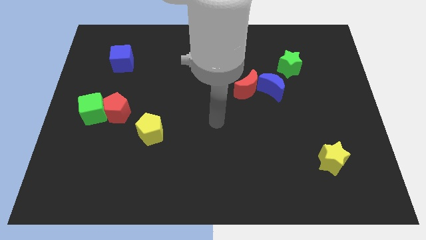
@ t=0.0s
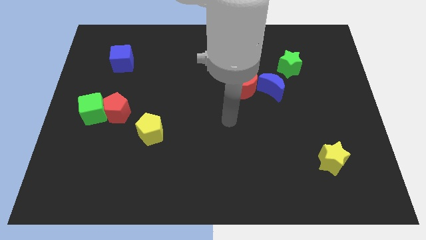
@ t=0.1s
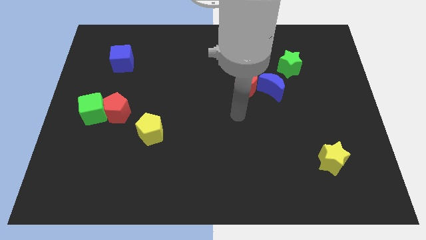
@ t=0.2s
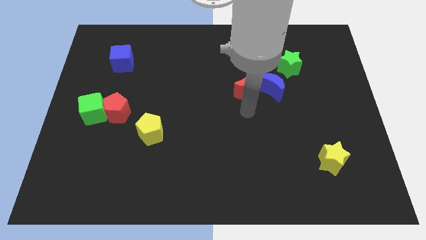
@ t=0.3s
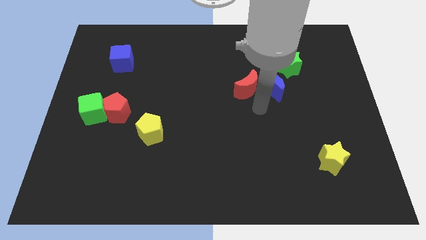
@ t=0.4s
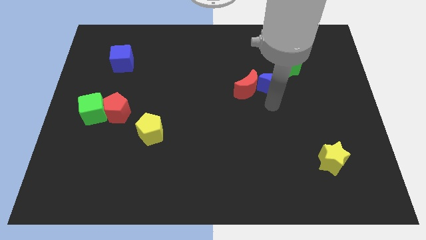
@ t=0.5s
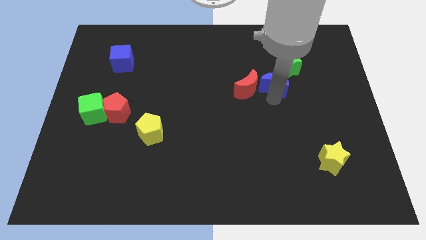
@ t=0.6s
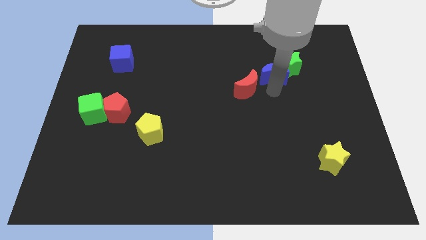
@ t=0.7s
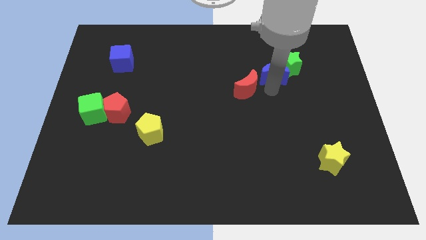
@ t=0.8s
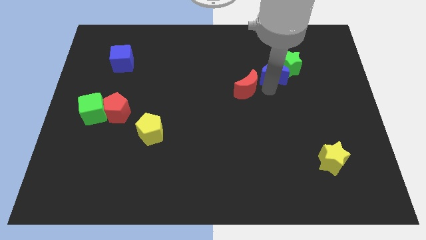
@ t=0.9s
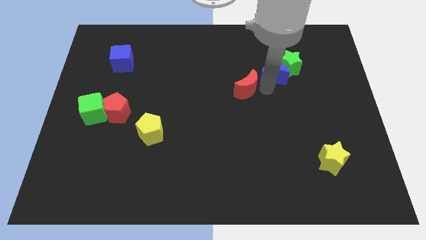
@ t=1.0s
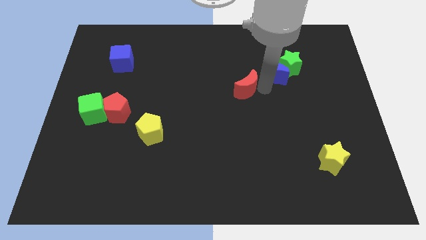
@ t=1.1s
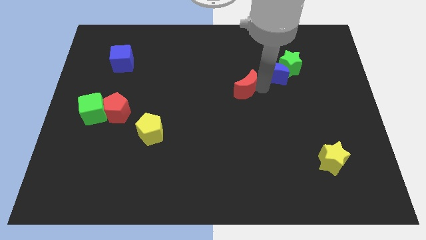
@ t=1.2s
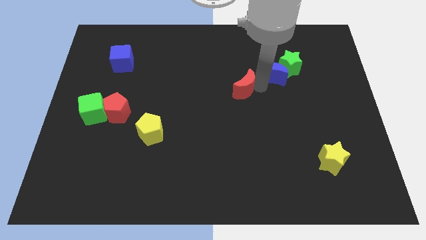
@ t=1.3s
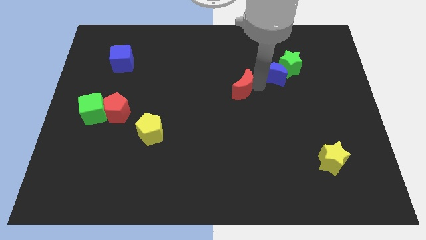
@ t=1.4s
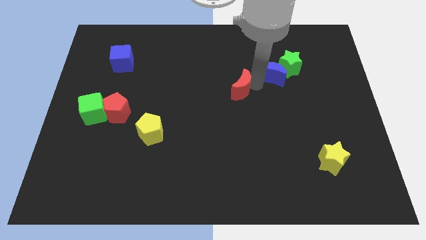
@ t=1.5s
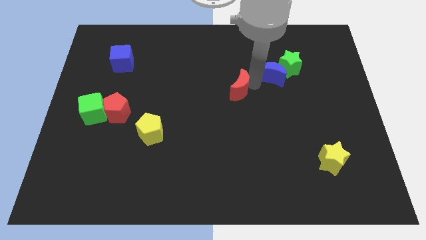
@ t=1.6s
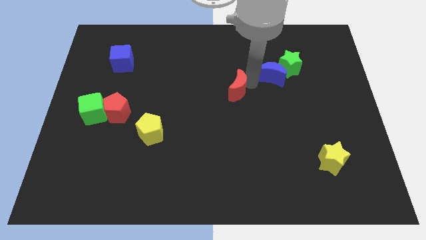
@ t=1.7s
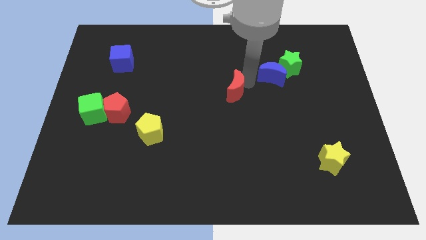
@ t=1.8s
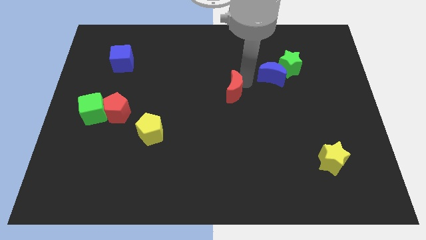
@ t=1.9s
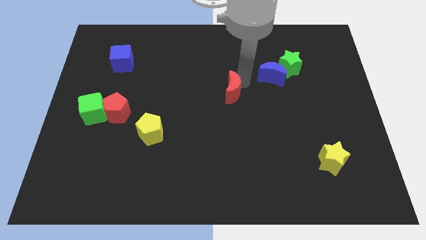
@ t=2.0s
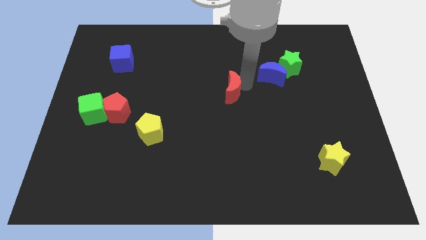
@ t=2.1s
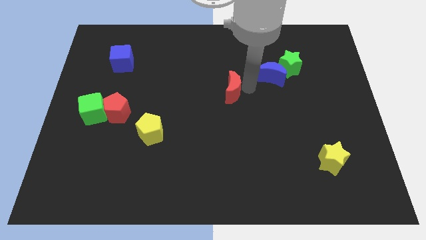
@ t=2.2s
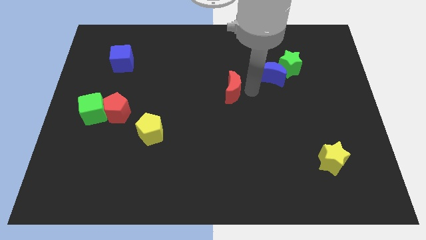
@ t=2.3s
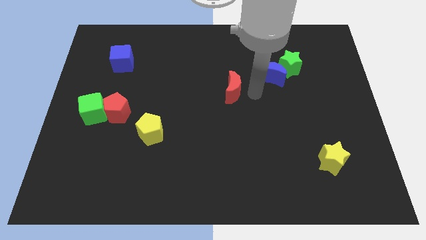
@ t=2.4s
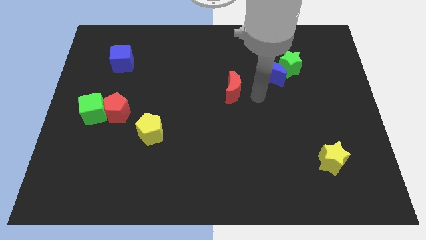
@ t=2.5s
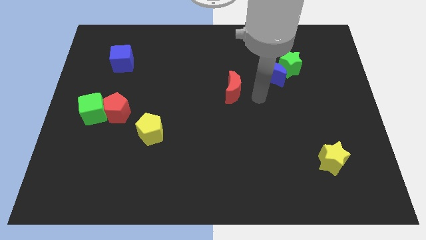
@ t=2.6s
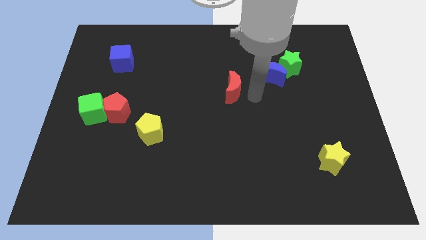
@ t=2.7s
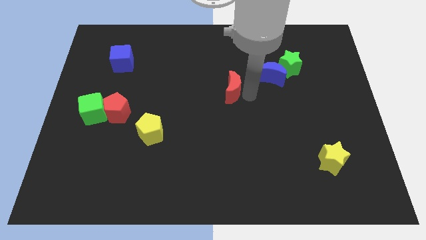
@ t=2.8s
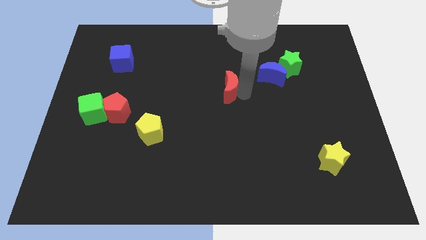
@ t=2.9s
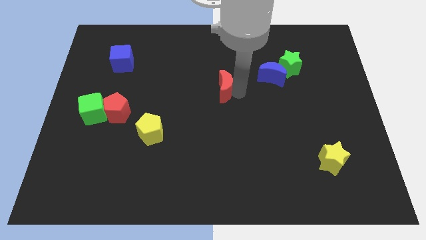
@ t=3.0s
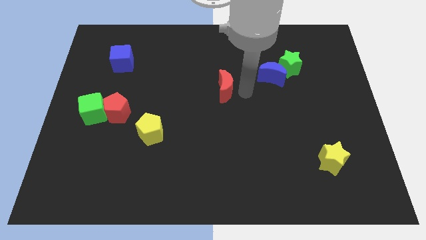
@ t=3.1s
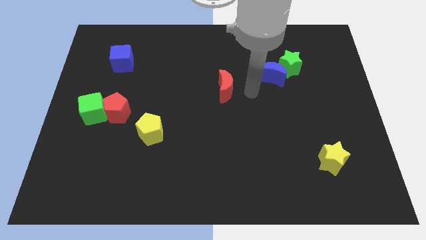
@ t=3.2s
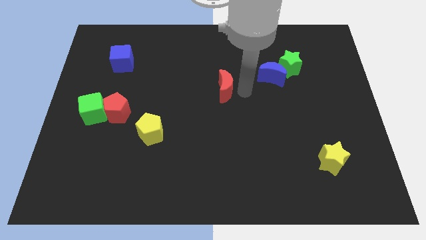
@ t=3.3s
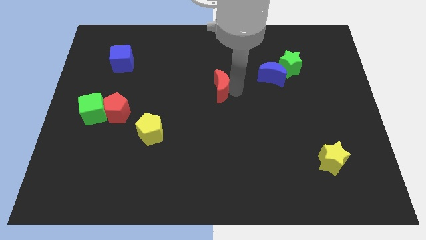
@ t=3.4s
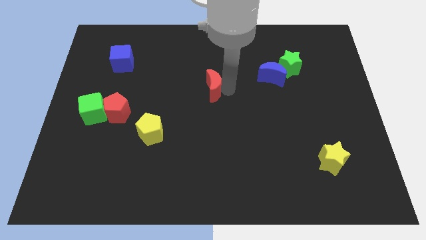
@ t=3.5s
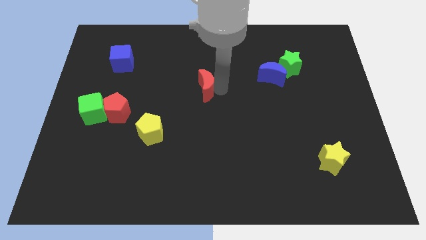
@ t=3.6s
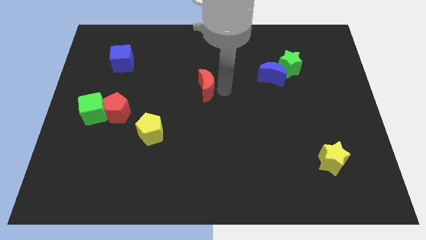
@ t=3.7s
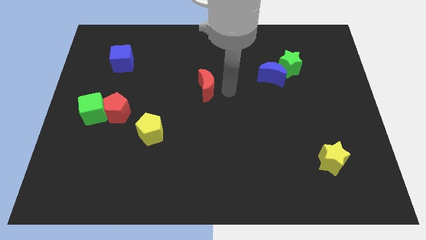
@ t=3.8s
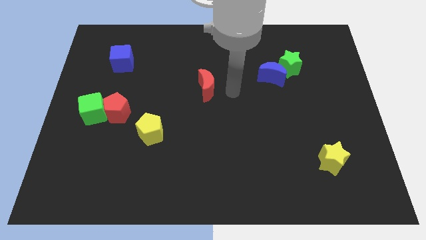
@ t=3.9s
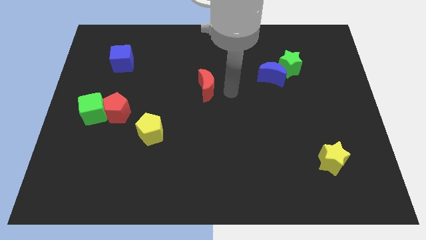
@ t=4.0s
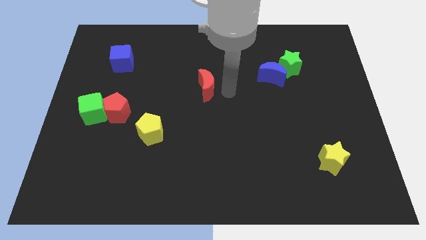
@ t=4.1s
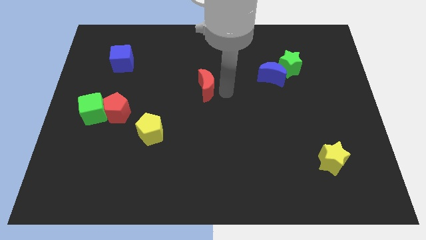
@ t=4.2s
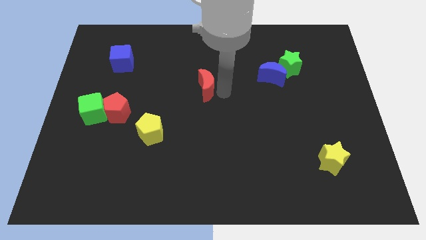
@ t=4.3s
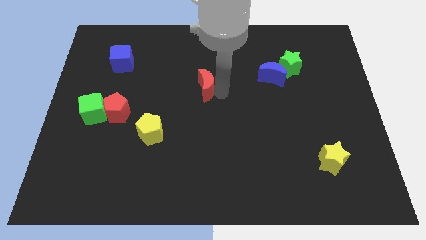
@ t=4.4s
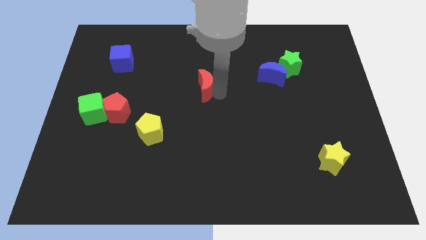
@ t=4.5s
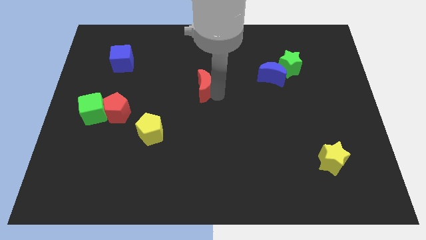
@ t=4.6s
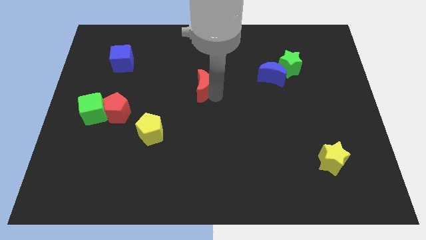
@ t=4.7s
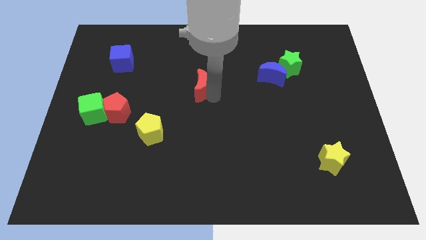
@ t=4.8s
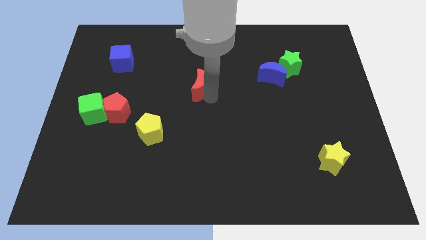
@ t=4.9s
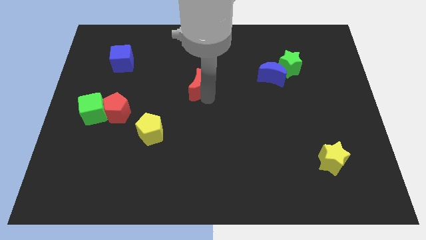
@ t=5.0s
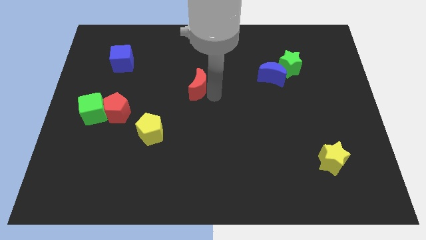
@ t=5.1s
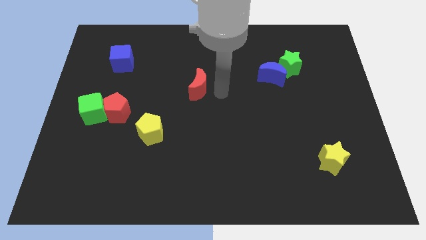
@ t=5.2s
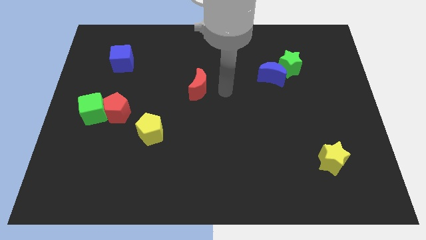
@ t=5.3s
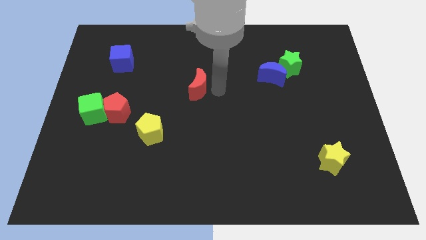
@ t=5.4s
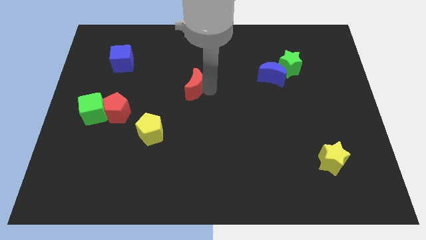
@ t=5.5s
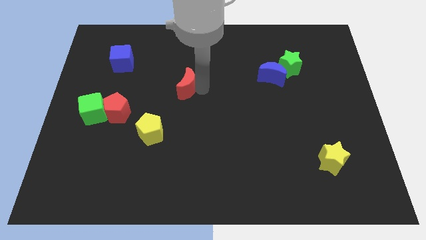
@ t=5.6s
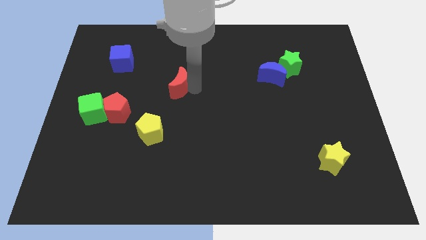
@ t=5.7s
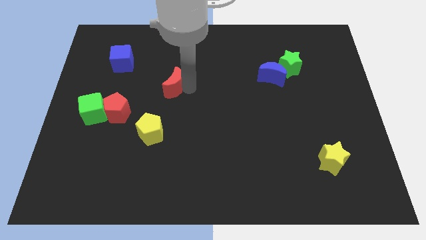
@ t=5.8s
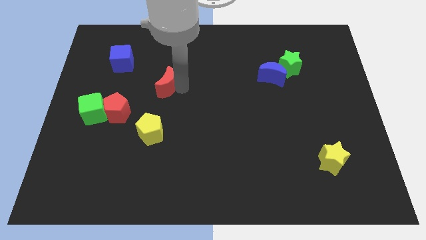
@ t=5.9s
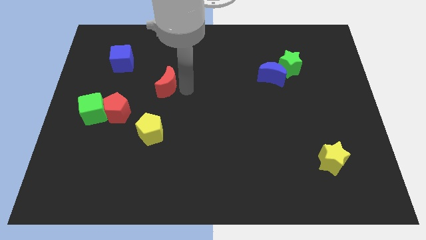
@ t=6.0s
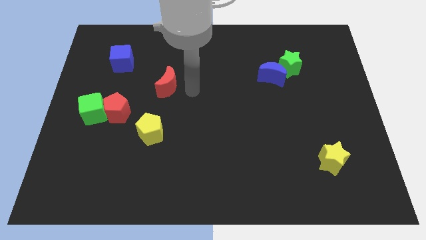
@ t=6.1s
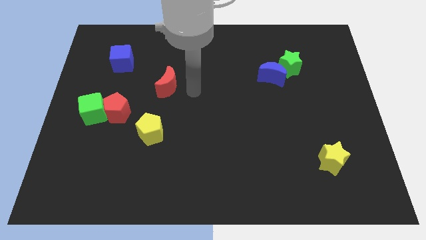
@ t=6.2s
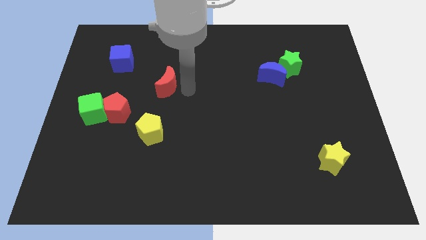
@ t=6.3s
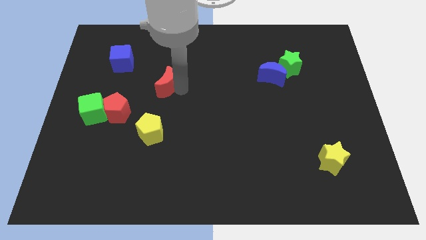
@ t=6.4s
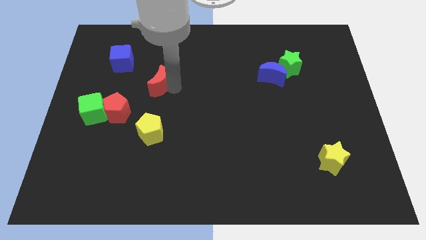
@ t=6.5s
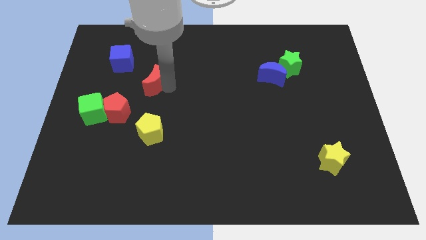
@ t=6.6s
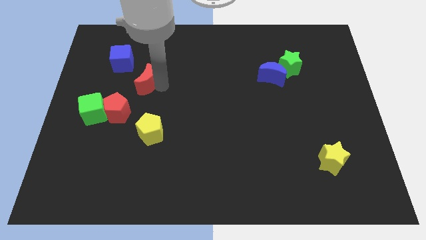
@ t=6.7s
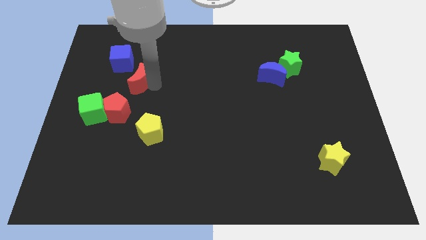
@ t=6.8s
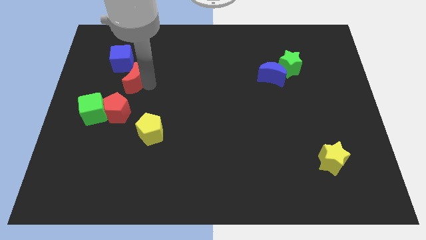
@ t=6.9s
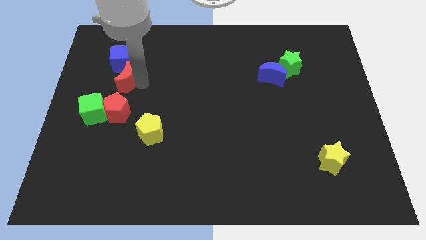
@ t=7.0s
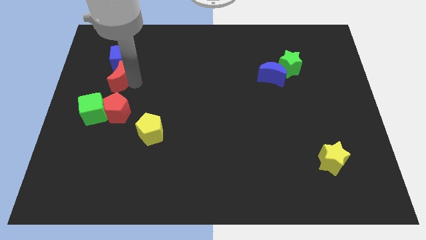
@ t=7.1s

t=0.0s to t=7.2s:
move the red moon diagonally down and to the left of the blue cube

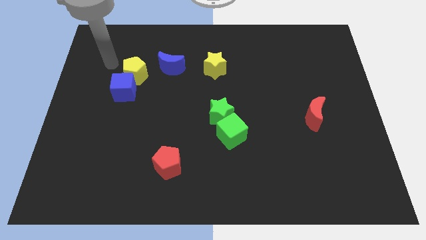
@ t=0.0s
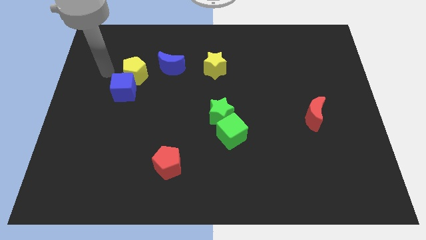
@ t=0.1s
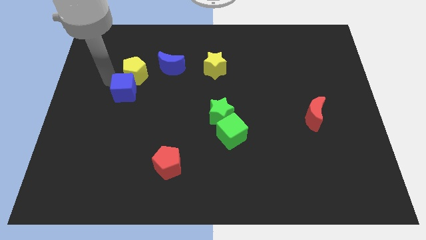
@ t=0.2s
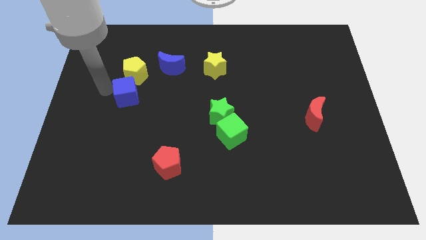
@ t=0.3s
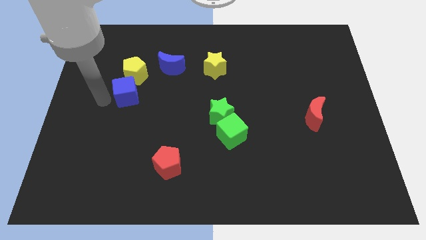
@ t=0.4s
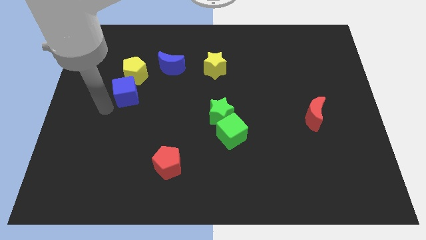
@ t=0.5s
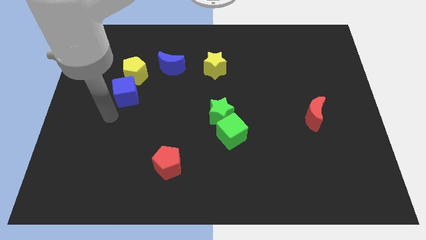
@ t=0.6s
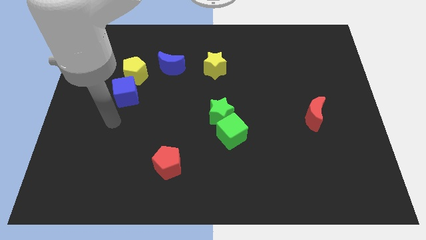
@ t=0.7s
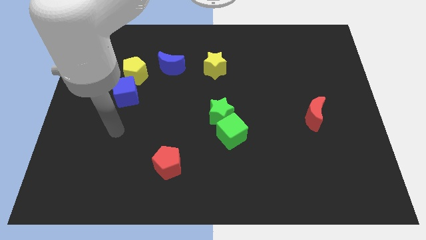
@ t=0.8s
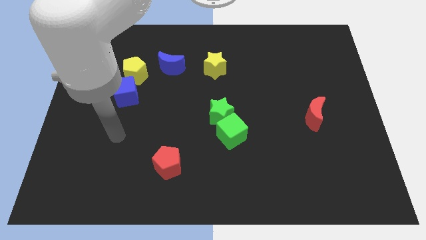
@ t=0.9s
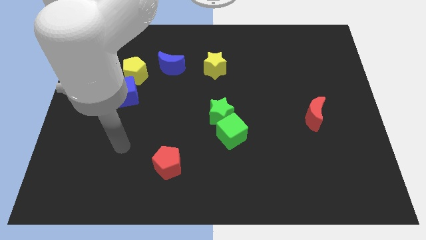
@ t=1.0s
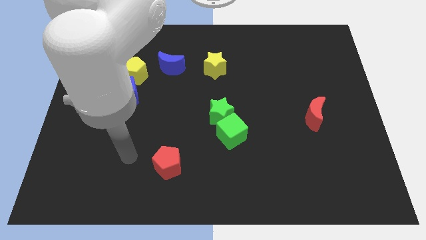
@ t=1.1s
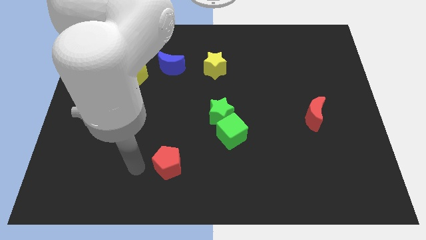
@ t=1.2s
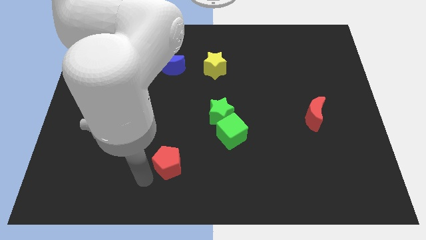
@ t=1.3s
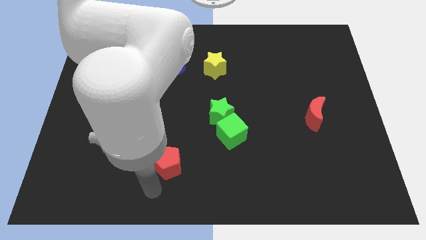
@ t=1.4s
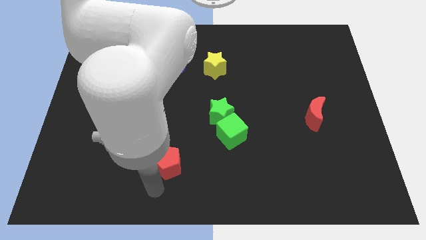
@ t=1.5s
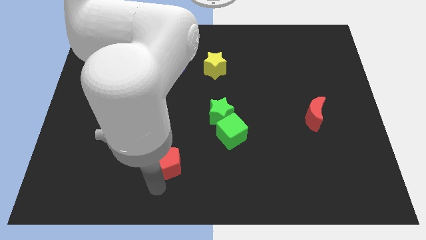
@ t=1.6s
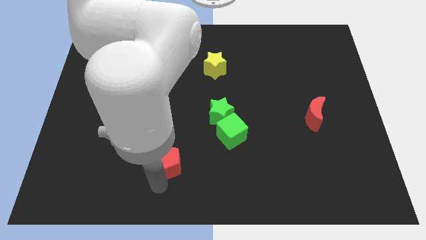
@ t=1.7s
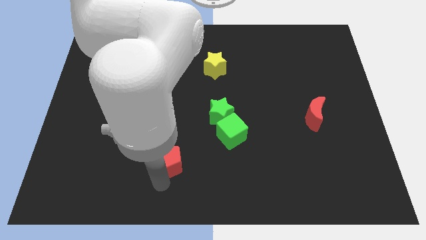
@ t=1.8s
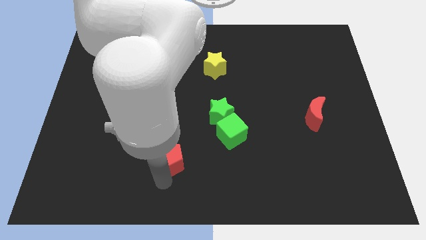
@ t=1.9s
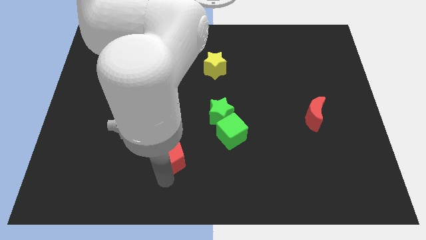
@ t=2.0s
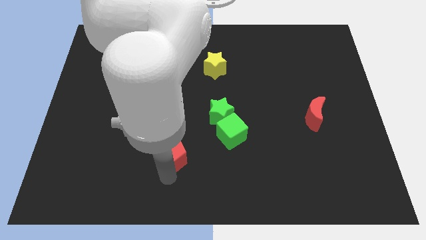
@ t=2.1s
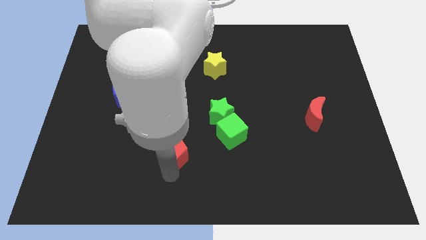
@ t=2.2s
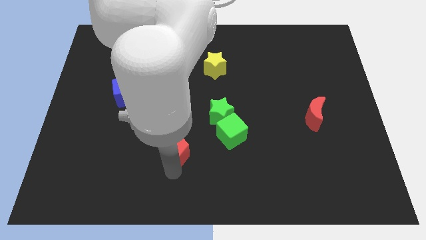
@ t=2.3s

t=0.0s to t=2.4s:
put the red pentagon to the left side of the green cube
